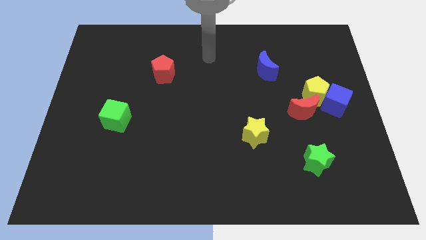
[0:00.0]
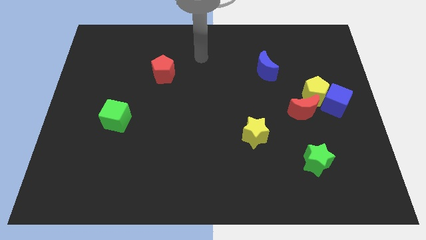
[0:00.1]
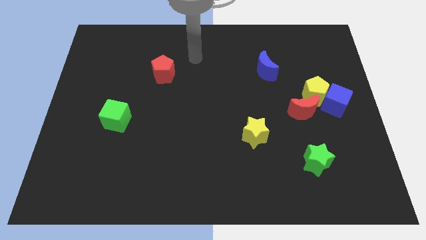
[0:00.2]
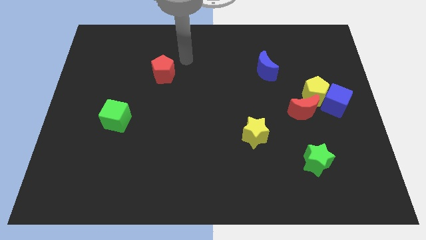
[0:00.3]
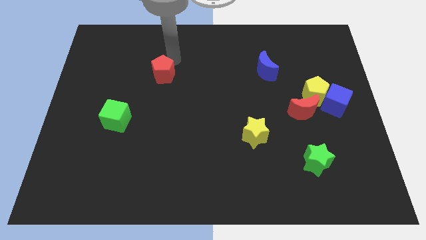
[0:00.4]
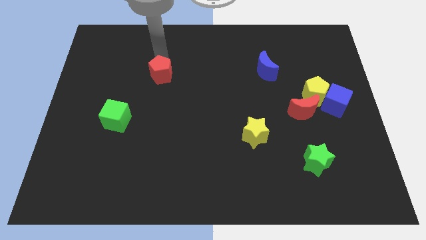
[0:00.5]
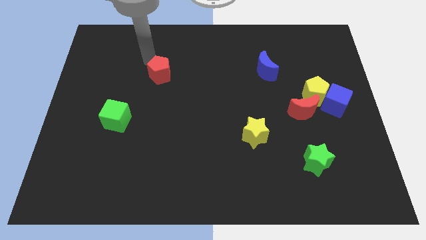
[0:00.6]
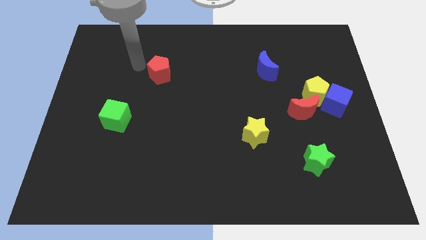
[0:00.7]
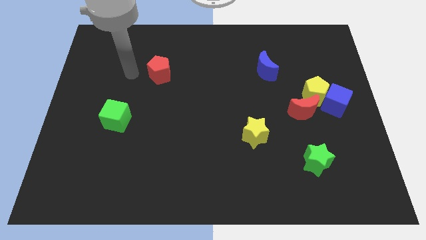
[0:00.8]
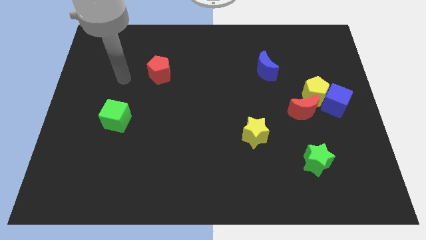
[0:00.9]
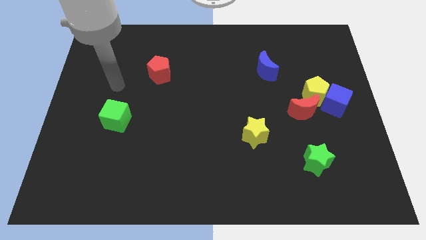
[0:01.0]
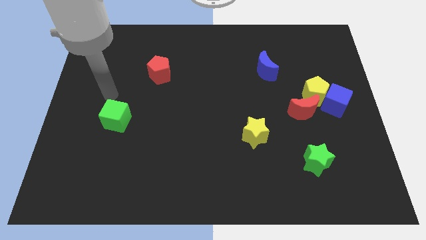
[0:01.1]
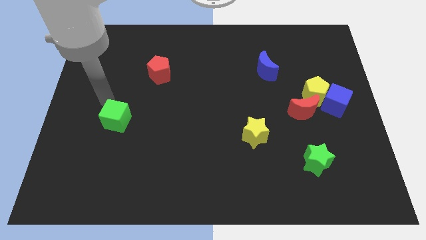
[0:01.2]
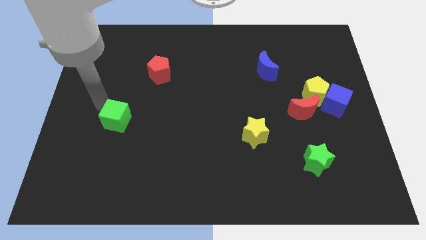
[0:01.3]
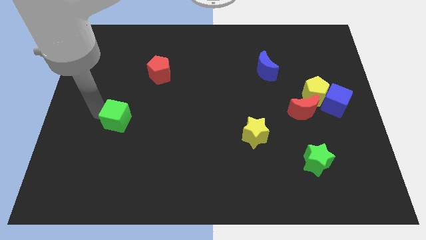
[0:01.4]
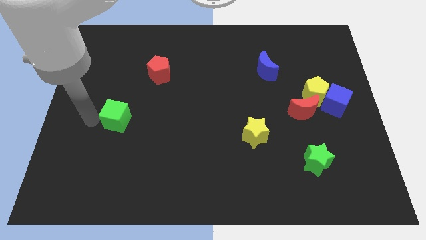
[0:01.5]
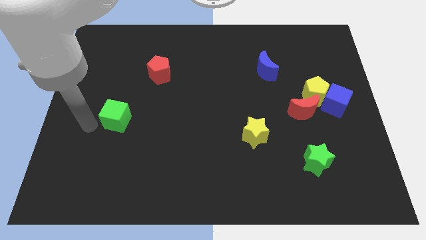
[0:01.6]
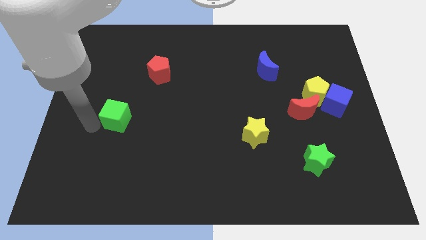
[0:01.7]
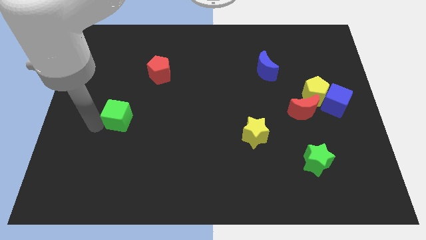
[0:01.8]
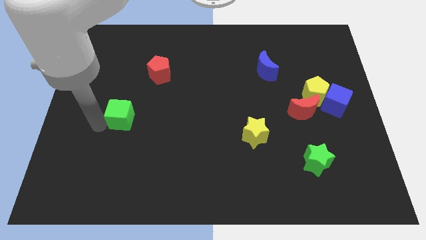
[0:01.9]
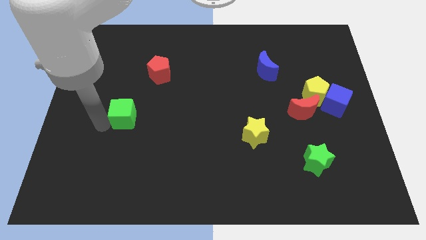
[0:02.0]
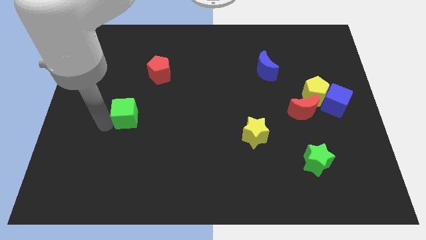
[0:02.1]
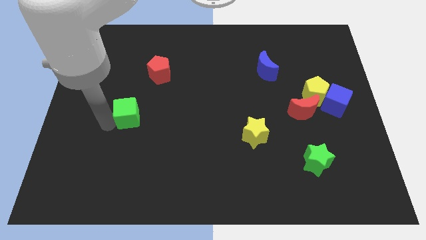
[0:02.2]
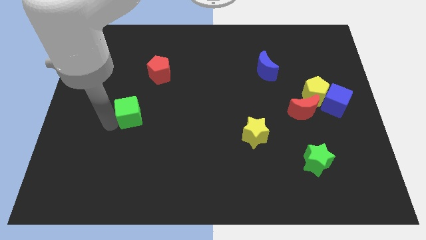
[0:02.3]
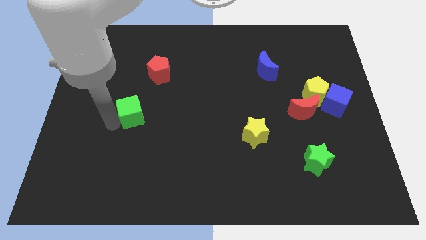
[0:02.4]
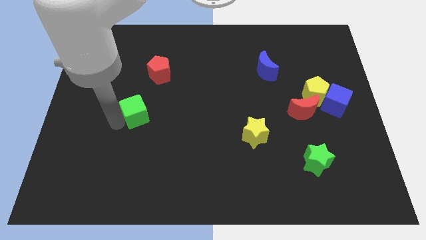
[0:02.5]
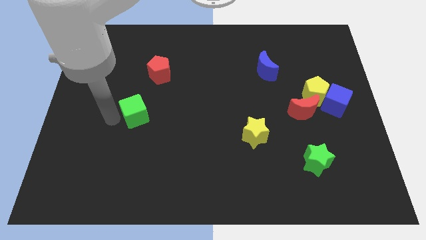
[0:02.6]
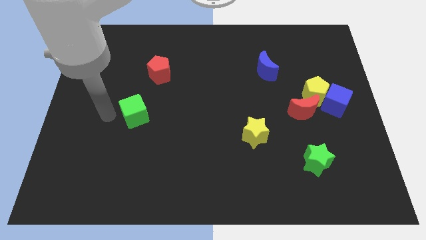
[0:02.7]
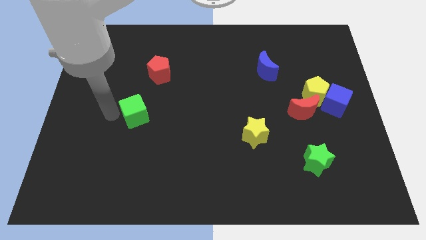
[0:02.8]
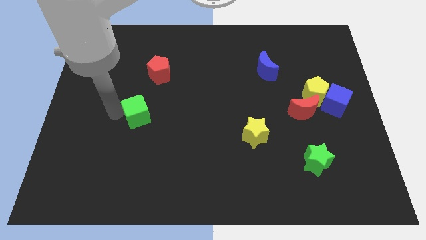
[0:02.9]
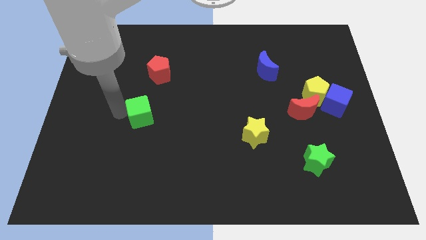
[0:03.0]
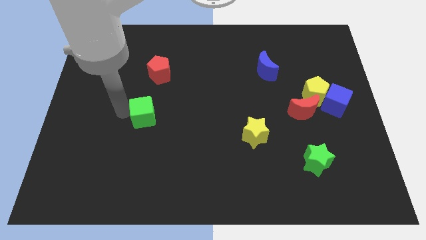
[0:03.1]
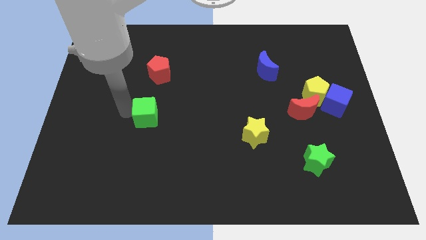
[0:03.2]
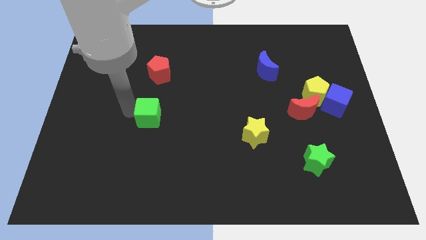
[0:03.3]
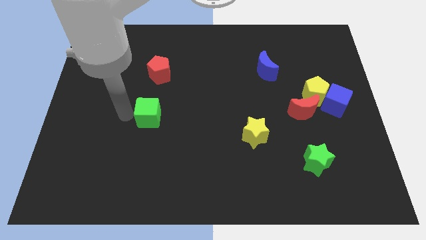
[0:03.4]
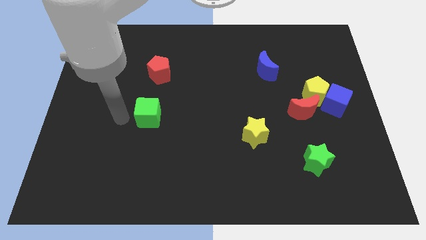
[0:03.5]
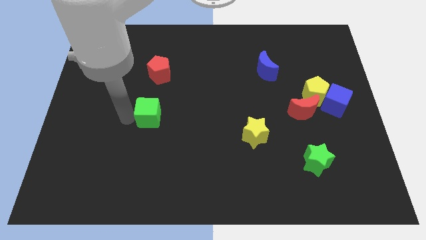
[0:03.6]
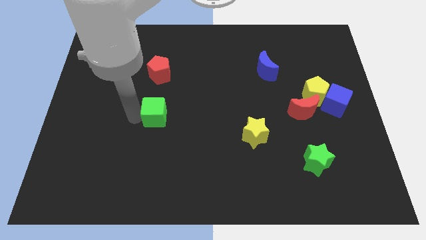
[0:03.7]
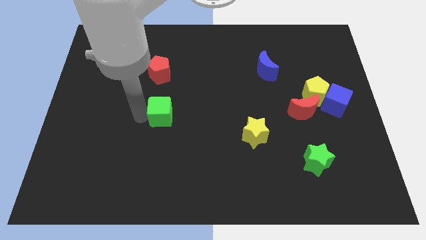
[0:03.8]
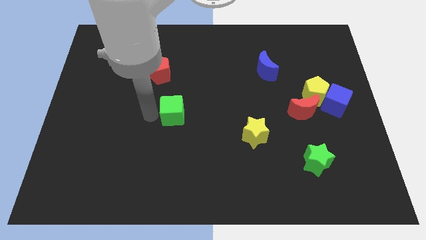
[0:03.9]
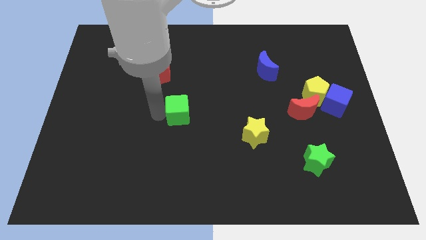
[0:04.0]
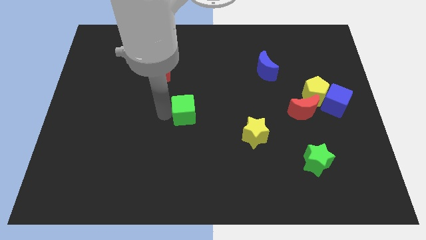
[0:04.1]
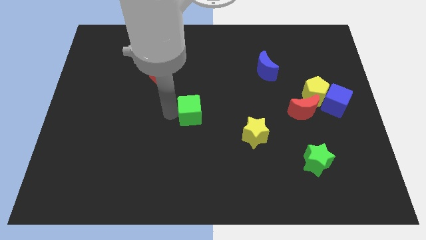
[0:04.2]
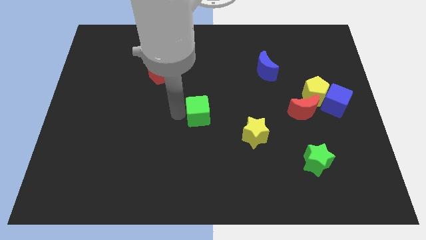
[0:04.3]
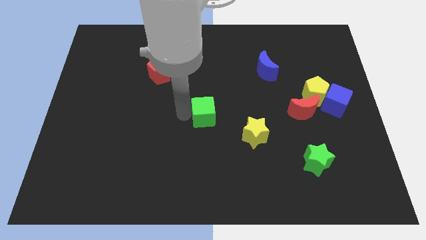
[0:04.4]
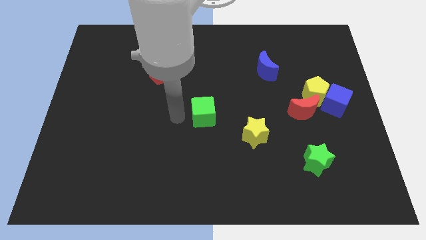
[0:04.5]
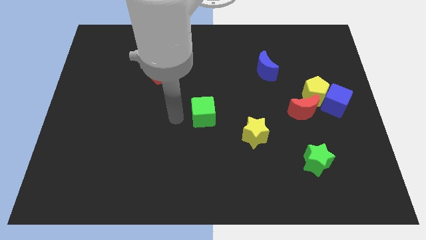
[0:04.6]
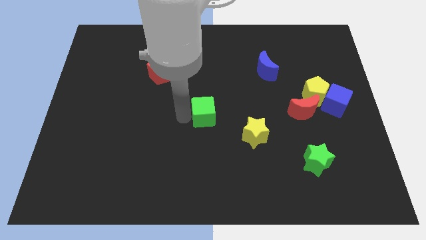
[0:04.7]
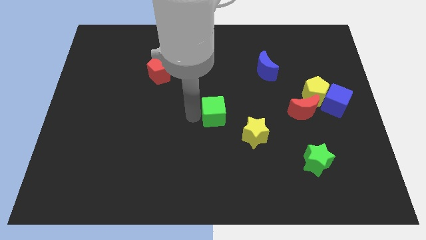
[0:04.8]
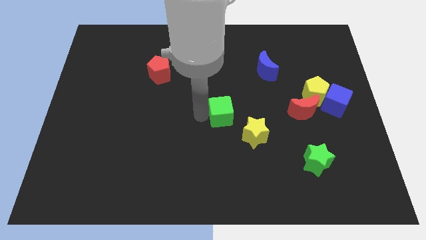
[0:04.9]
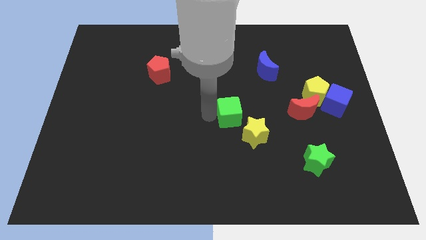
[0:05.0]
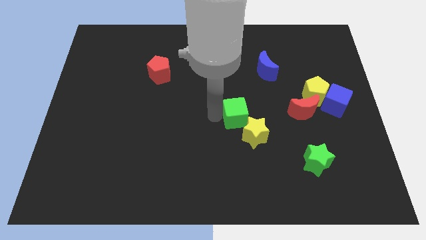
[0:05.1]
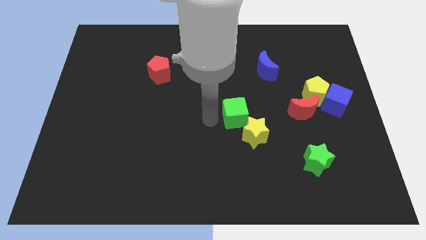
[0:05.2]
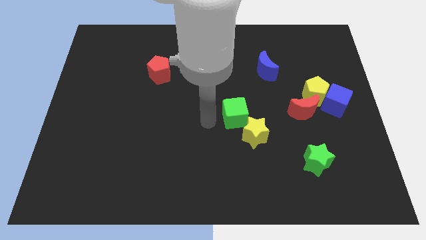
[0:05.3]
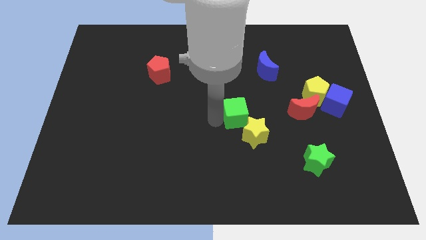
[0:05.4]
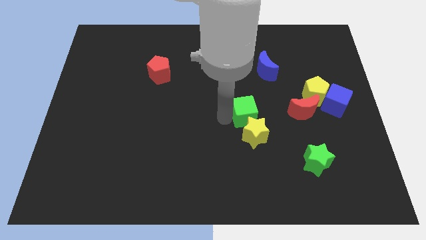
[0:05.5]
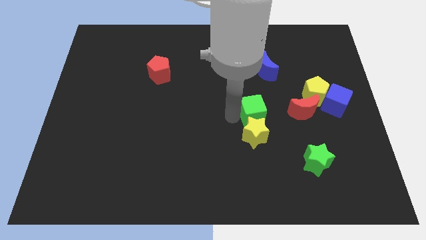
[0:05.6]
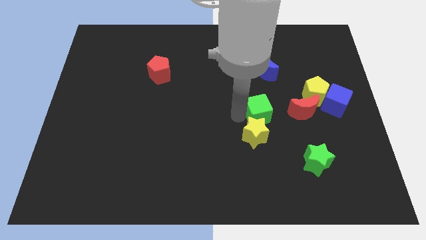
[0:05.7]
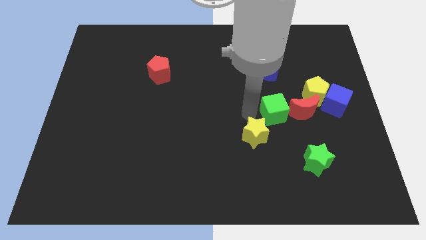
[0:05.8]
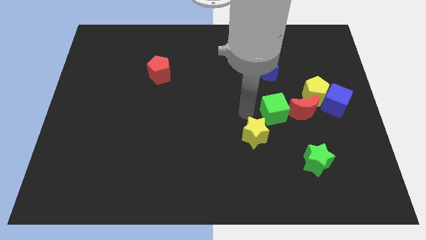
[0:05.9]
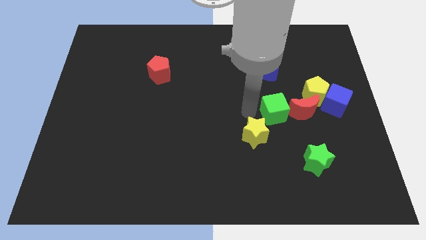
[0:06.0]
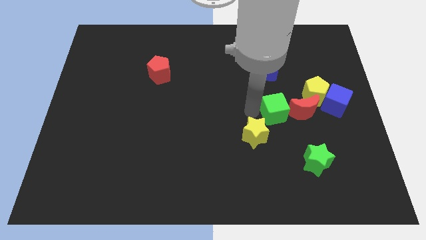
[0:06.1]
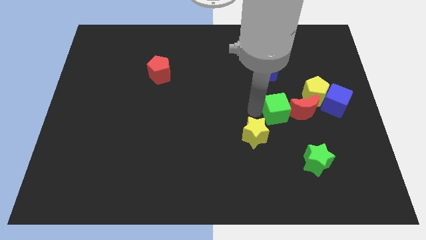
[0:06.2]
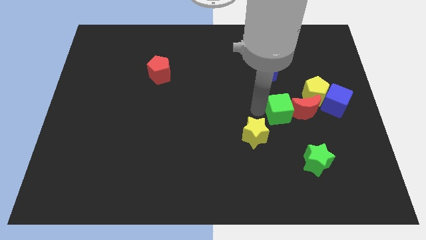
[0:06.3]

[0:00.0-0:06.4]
push the green cube close to the red moon

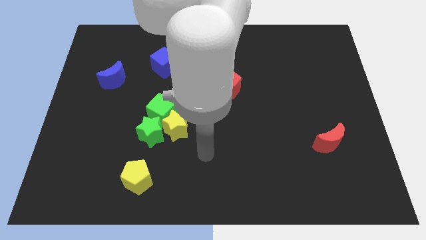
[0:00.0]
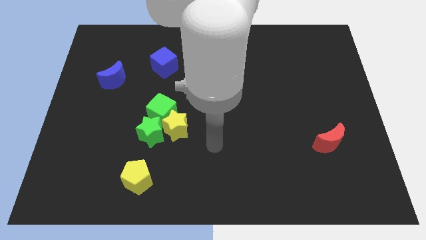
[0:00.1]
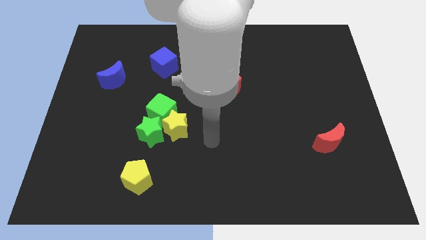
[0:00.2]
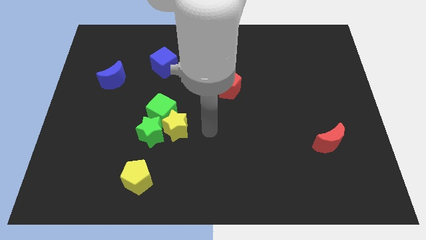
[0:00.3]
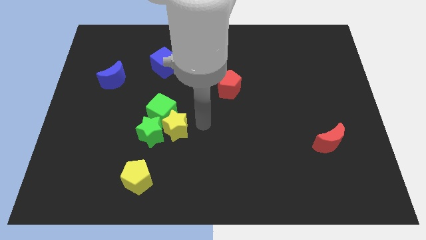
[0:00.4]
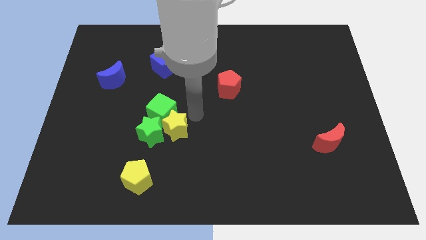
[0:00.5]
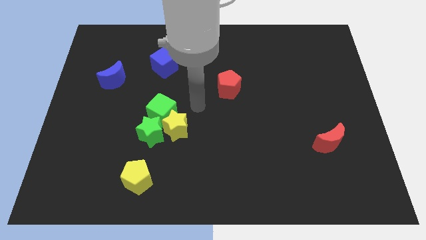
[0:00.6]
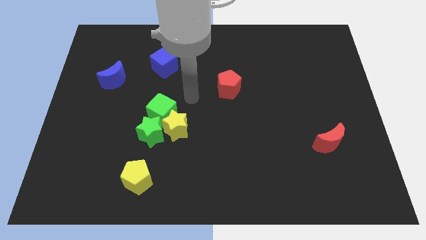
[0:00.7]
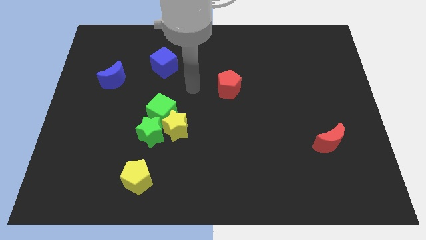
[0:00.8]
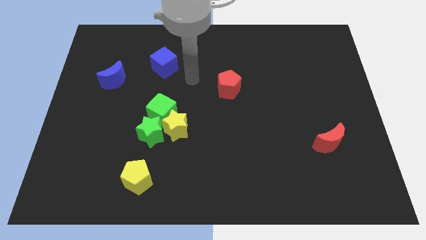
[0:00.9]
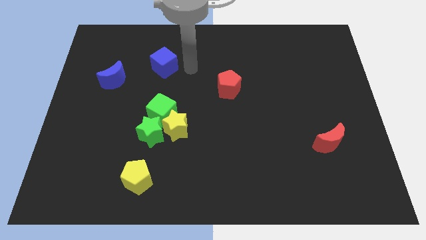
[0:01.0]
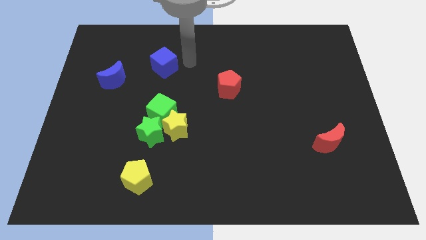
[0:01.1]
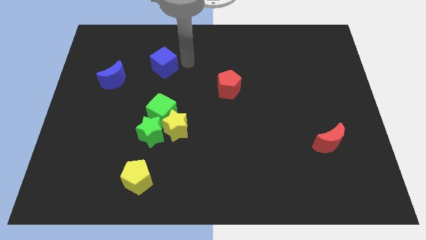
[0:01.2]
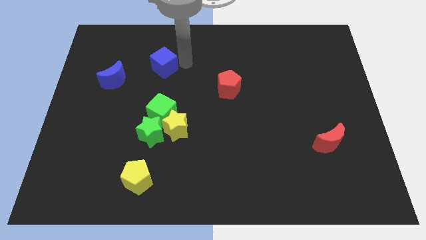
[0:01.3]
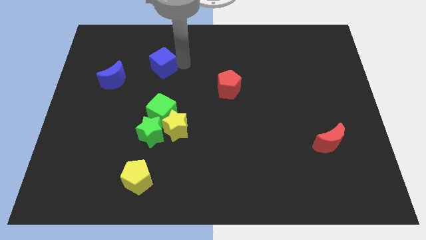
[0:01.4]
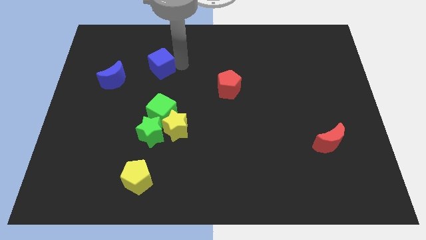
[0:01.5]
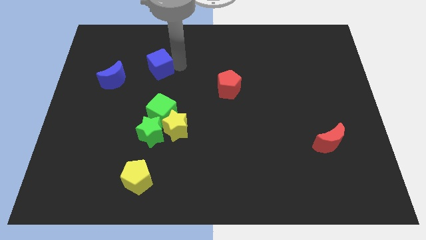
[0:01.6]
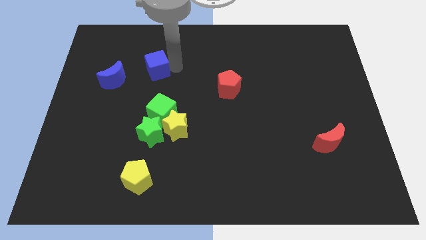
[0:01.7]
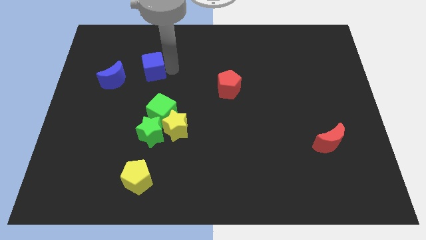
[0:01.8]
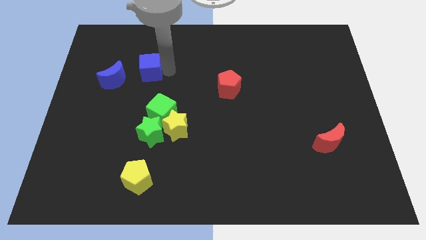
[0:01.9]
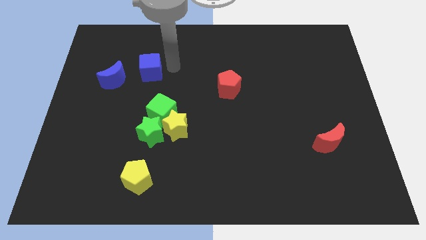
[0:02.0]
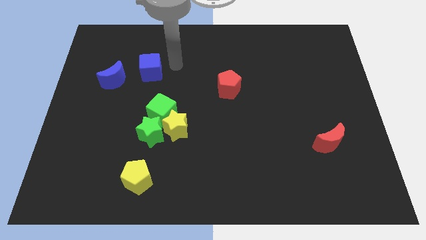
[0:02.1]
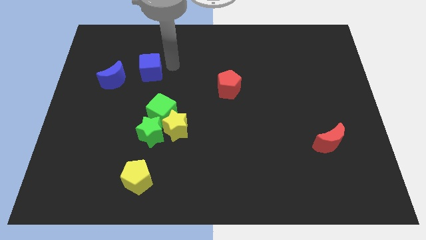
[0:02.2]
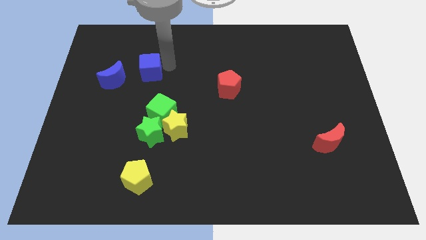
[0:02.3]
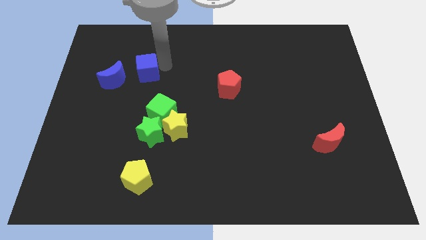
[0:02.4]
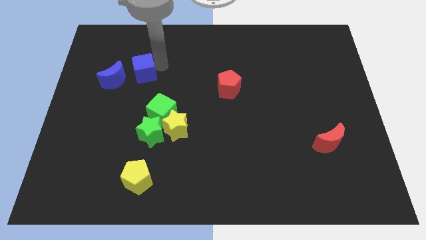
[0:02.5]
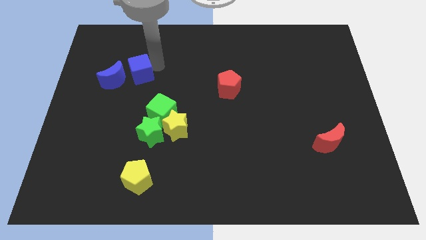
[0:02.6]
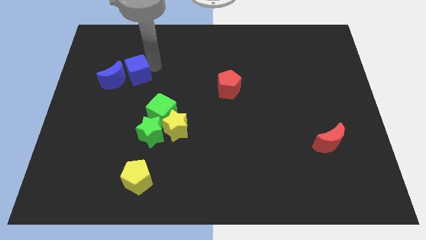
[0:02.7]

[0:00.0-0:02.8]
push the blue cube close to the blue moon
